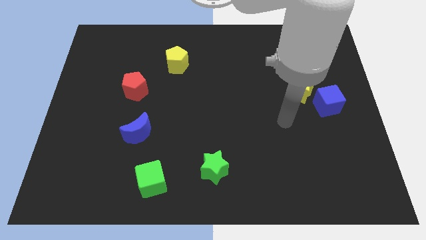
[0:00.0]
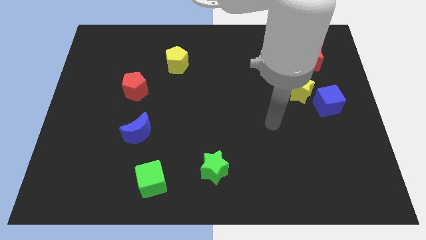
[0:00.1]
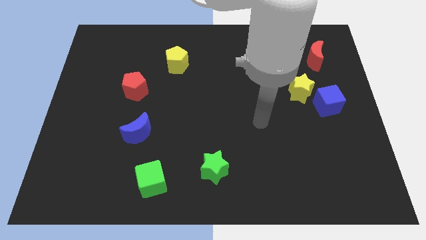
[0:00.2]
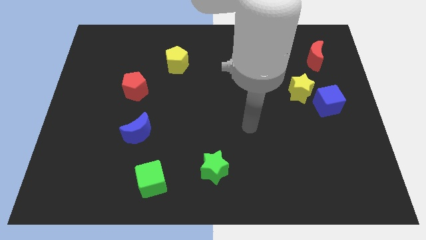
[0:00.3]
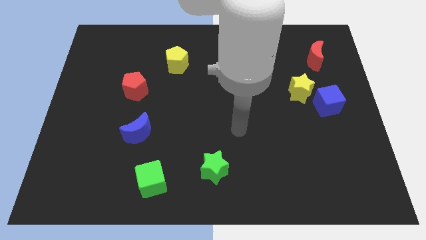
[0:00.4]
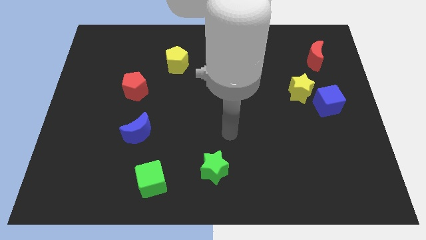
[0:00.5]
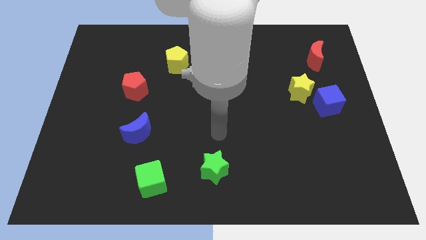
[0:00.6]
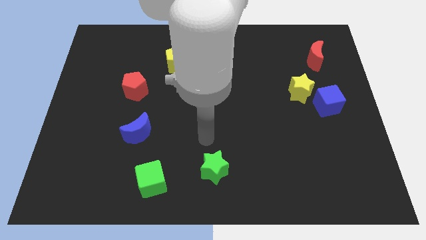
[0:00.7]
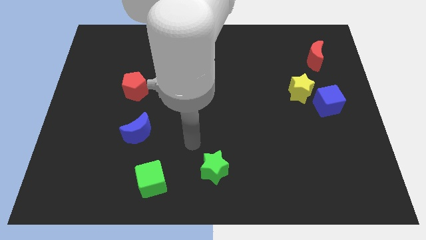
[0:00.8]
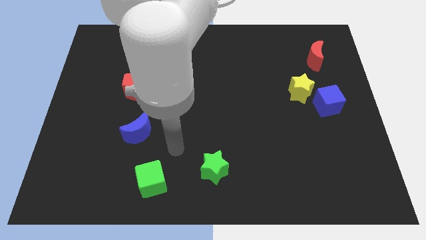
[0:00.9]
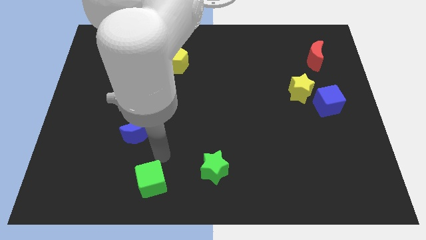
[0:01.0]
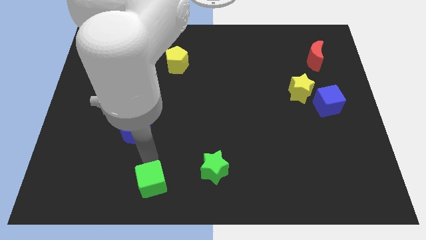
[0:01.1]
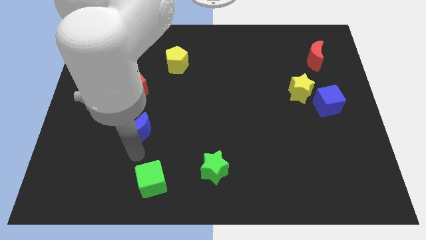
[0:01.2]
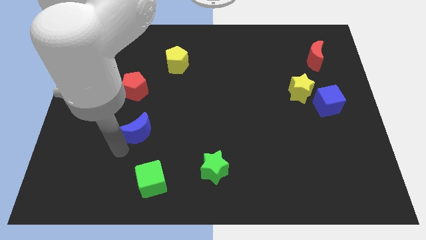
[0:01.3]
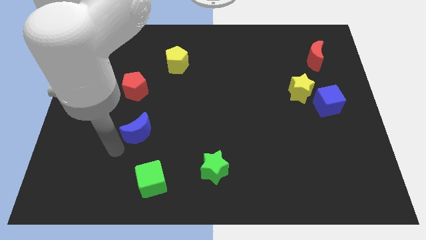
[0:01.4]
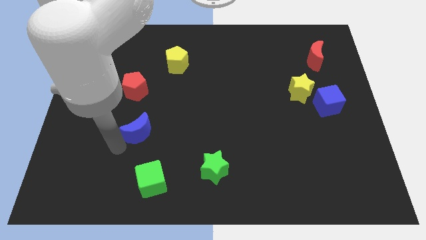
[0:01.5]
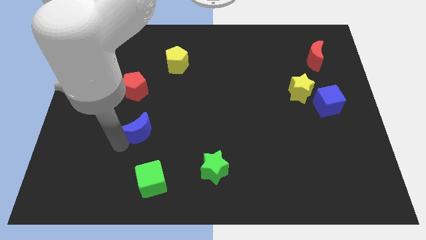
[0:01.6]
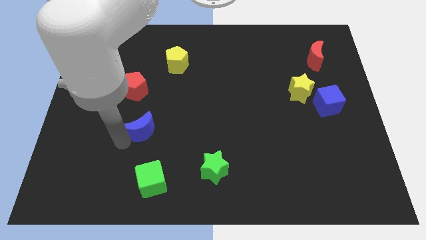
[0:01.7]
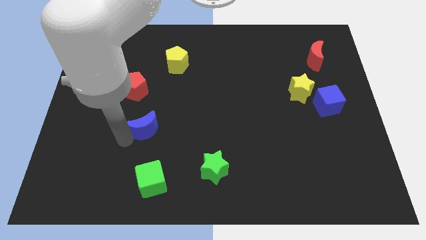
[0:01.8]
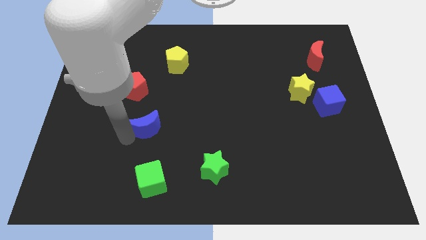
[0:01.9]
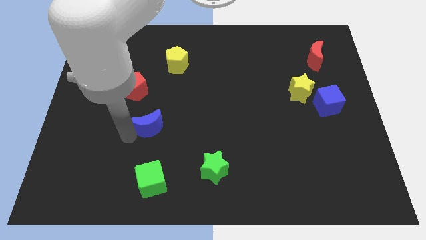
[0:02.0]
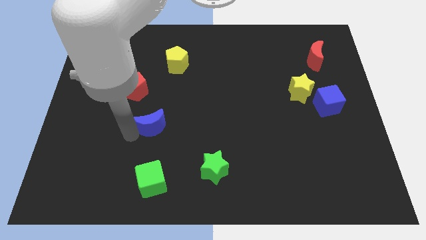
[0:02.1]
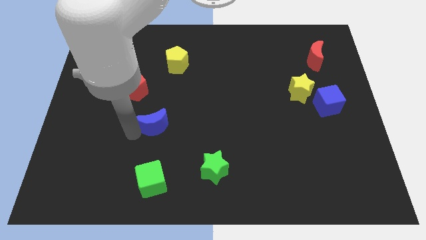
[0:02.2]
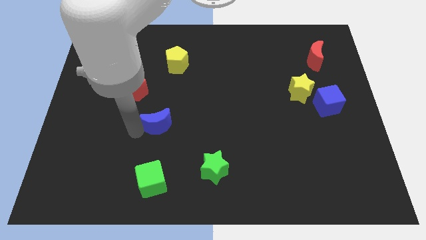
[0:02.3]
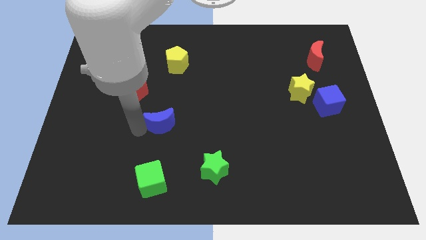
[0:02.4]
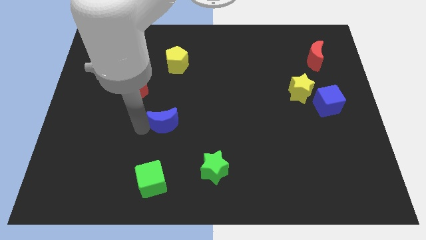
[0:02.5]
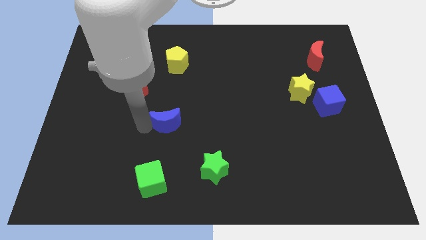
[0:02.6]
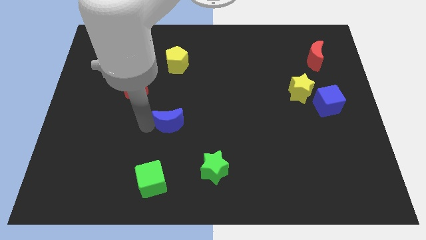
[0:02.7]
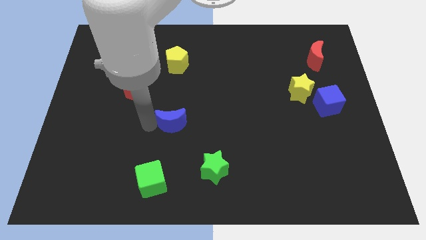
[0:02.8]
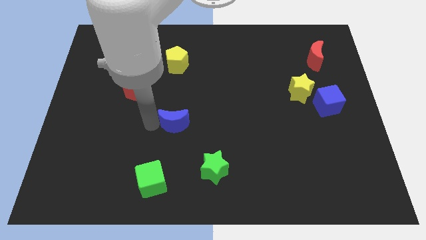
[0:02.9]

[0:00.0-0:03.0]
slightly push the blue moon diagonally up and to the right

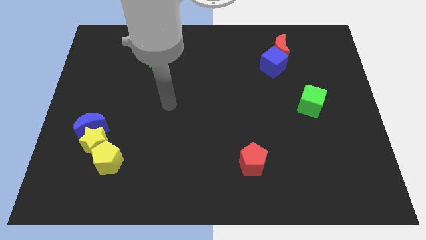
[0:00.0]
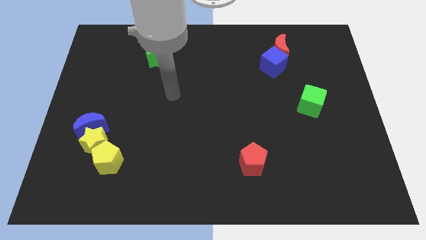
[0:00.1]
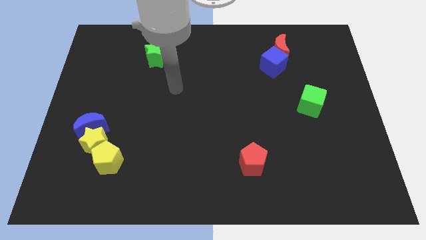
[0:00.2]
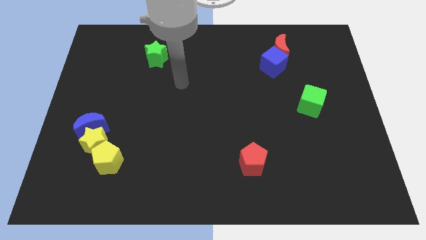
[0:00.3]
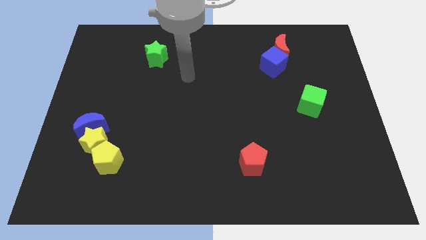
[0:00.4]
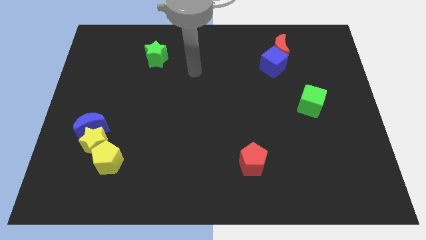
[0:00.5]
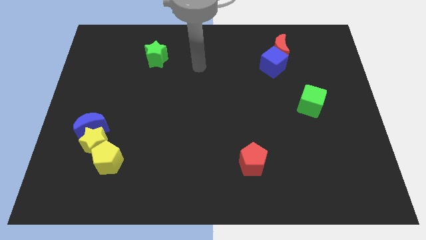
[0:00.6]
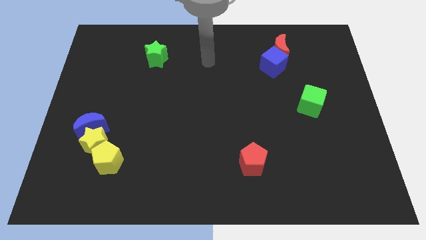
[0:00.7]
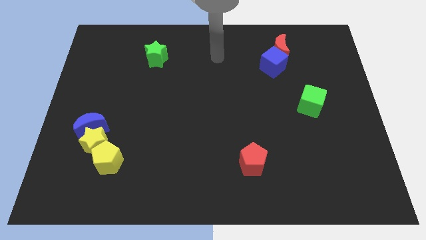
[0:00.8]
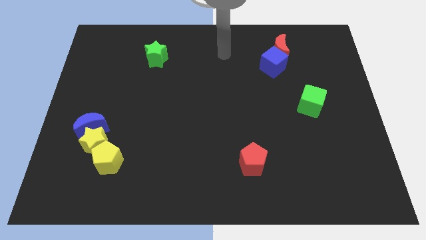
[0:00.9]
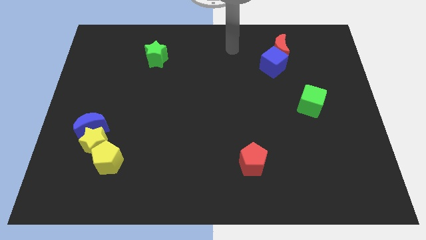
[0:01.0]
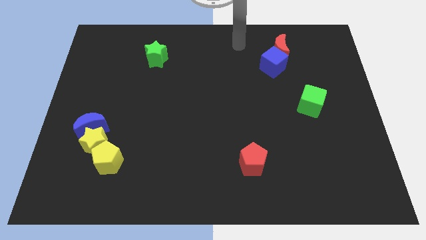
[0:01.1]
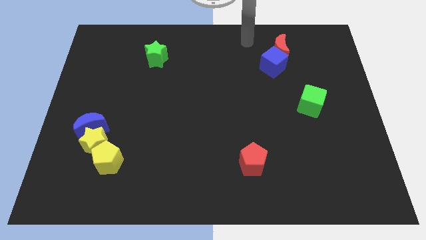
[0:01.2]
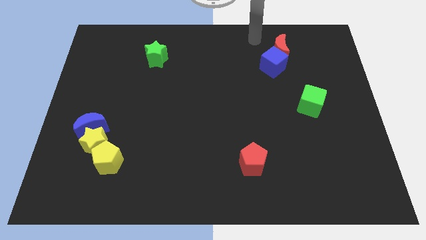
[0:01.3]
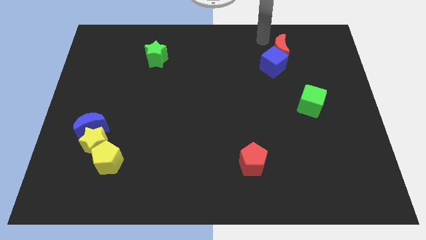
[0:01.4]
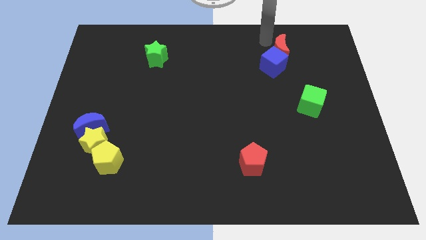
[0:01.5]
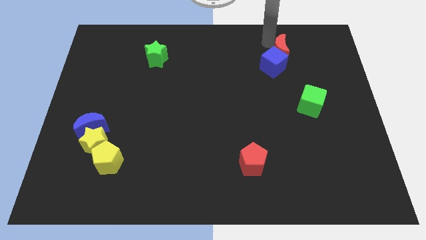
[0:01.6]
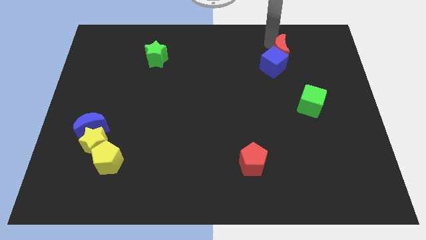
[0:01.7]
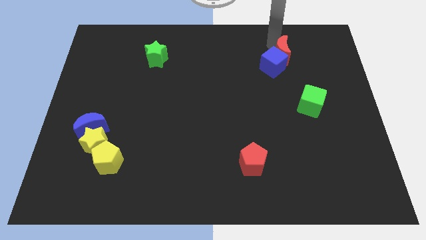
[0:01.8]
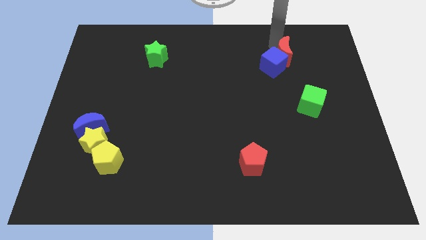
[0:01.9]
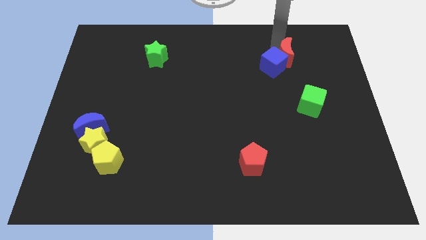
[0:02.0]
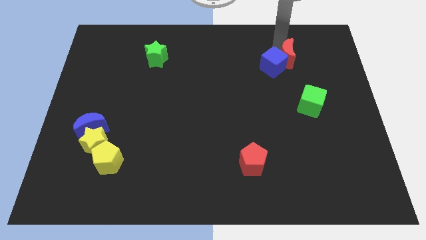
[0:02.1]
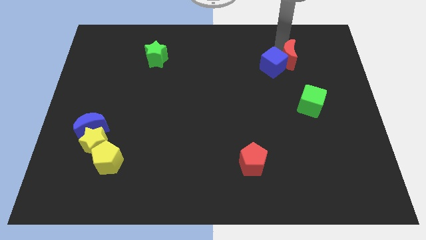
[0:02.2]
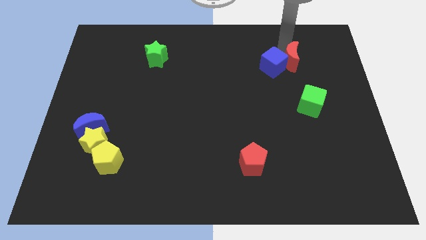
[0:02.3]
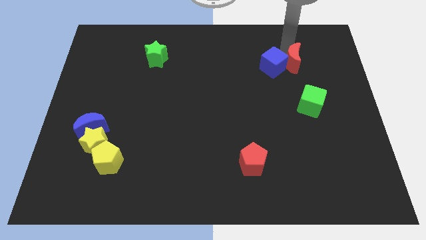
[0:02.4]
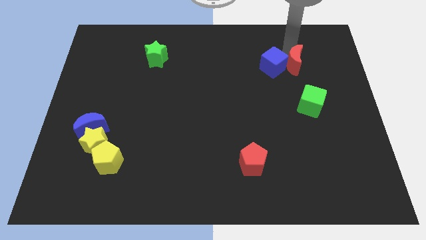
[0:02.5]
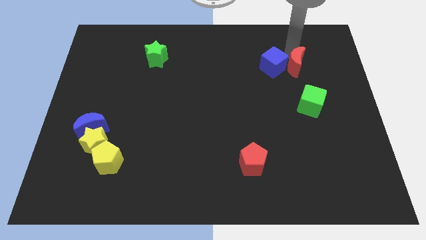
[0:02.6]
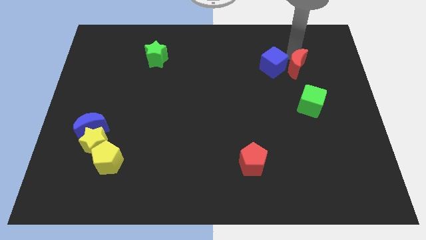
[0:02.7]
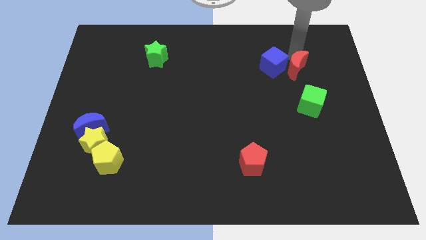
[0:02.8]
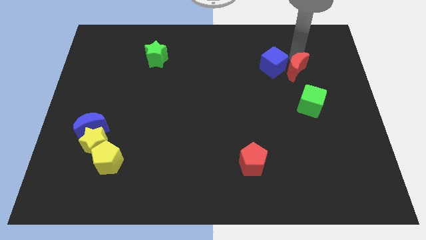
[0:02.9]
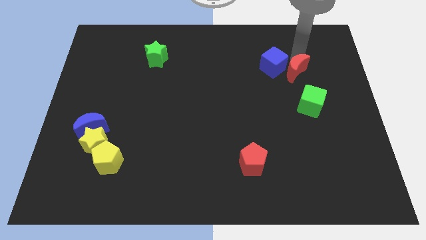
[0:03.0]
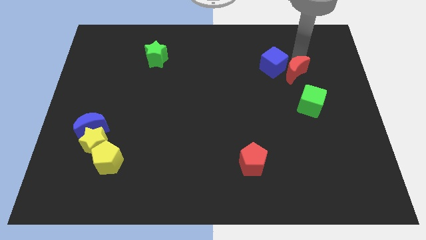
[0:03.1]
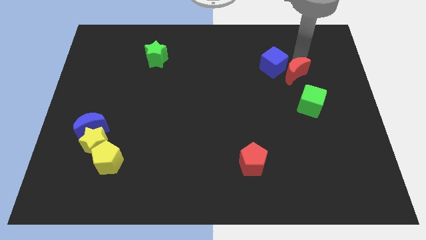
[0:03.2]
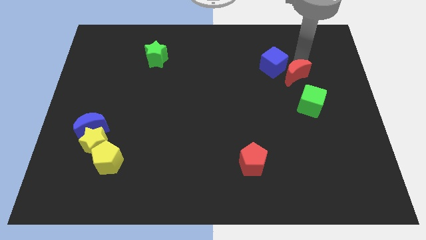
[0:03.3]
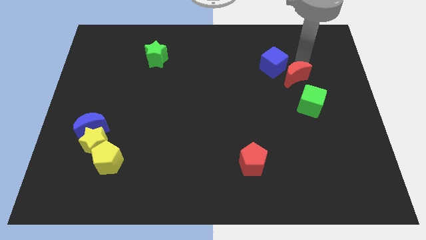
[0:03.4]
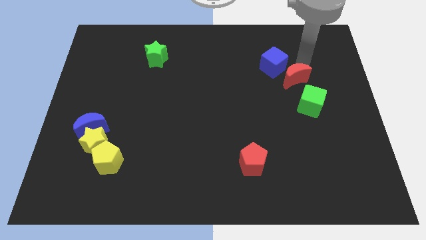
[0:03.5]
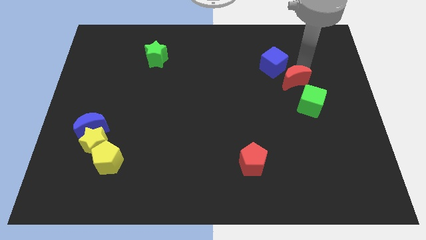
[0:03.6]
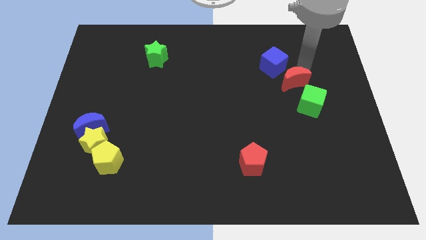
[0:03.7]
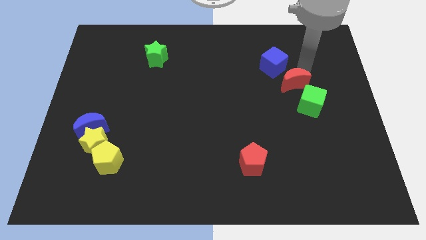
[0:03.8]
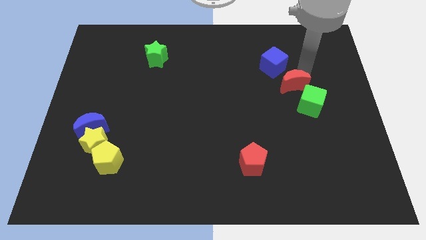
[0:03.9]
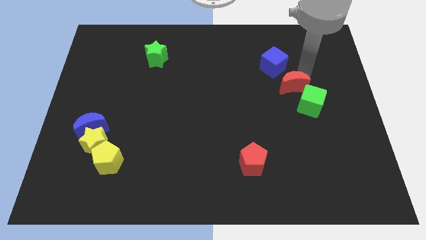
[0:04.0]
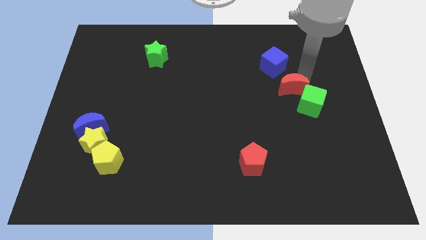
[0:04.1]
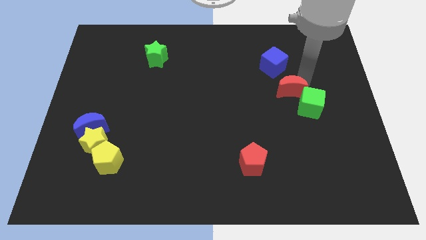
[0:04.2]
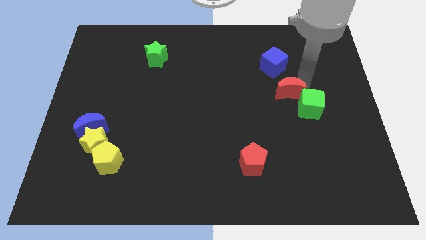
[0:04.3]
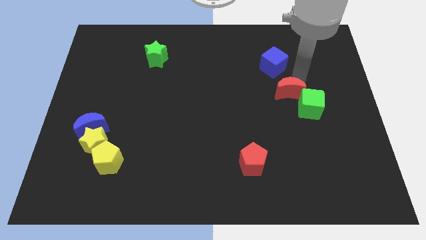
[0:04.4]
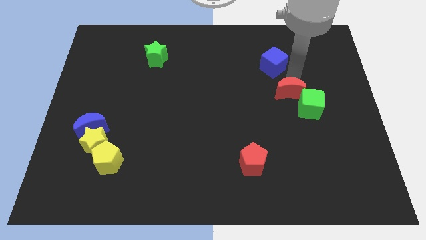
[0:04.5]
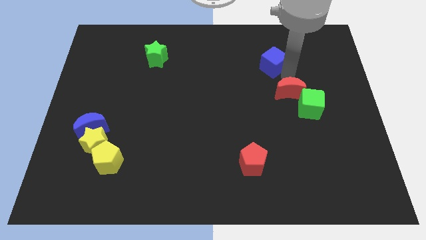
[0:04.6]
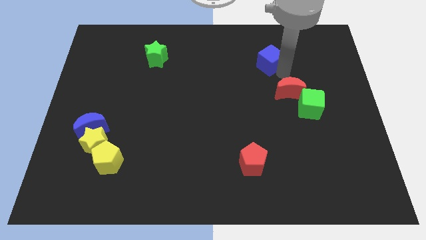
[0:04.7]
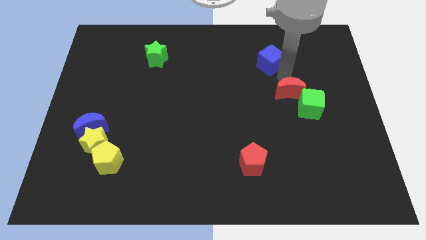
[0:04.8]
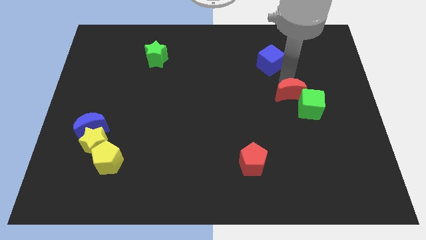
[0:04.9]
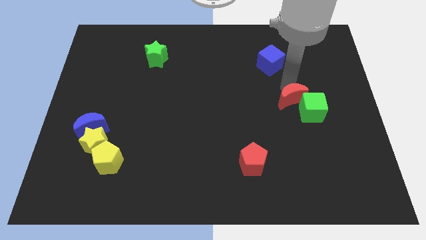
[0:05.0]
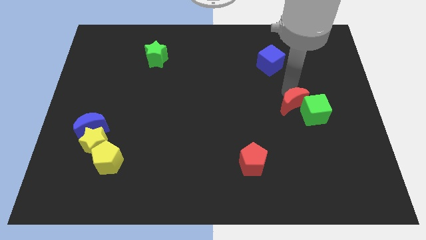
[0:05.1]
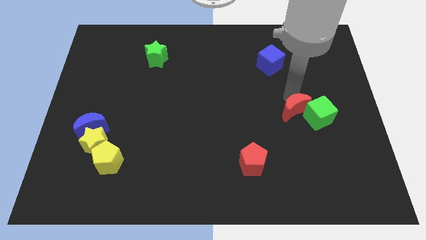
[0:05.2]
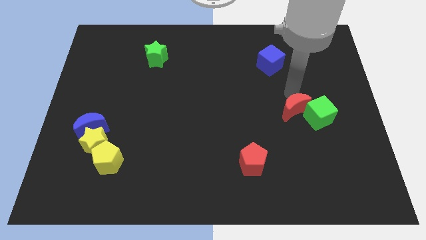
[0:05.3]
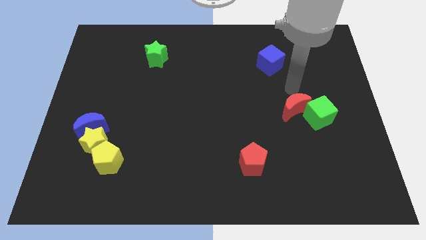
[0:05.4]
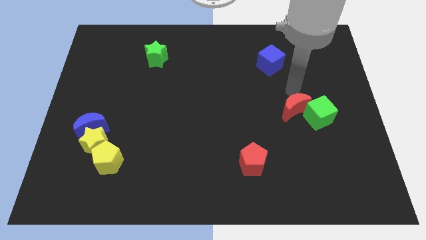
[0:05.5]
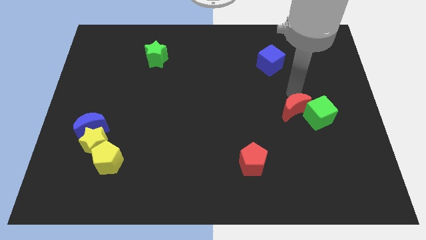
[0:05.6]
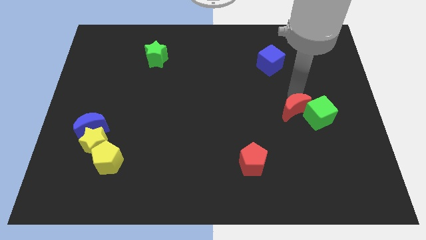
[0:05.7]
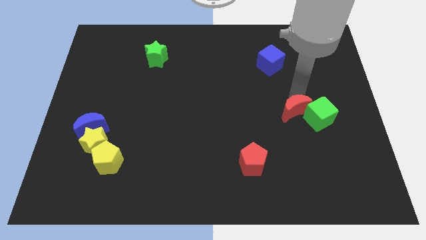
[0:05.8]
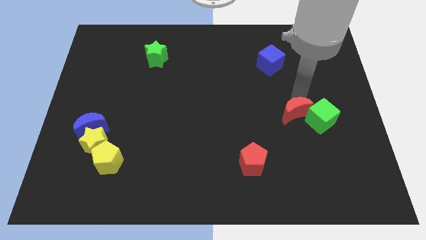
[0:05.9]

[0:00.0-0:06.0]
slide the red moon down
